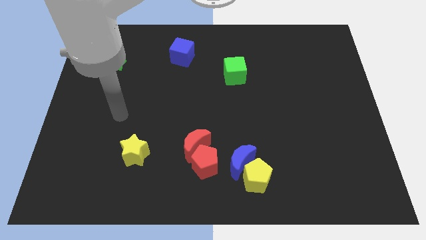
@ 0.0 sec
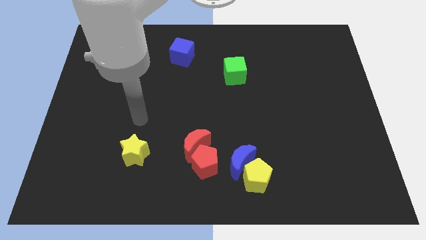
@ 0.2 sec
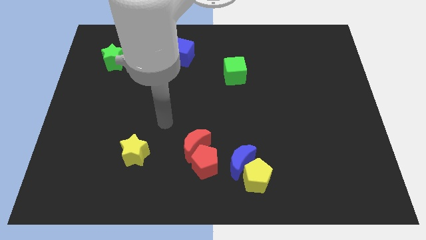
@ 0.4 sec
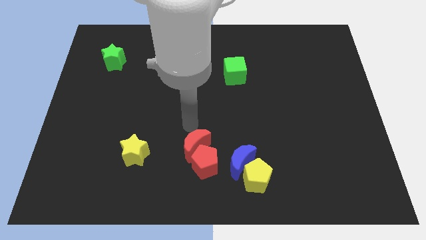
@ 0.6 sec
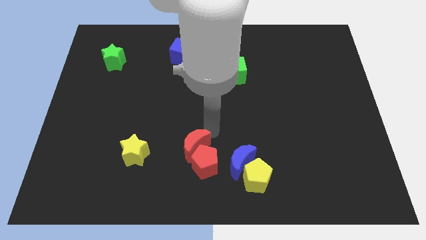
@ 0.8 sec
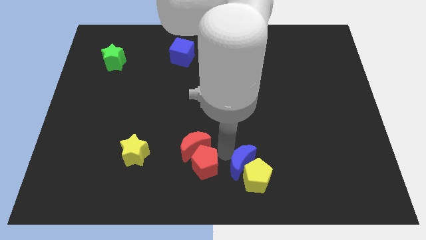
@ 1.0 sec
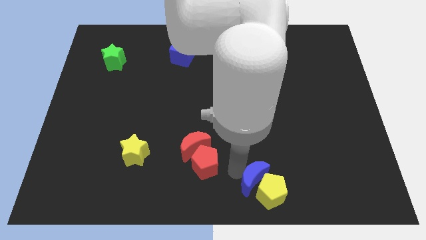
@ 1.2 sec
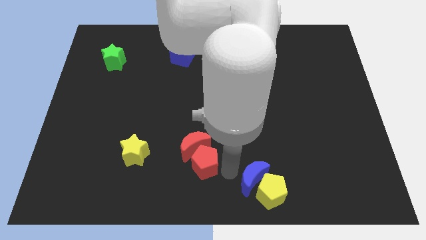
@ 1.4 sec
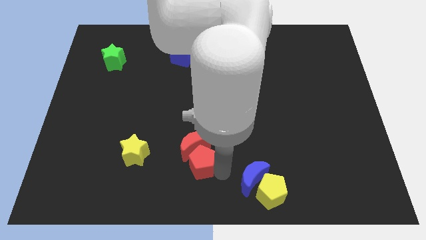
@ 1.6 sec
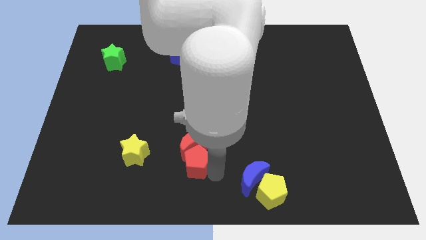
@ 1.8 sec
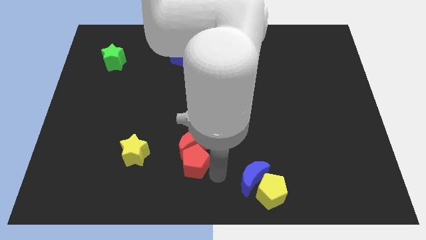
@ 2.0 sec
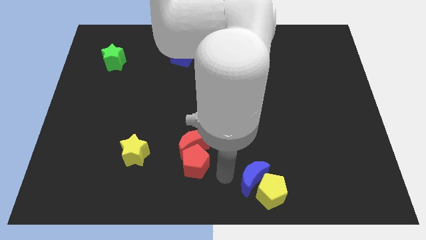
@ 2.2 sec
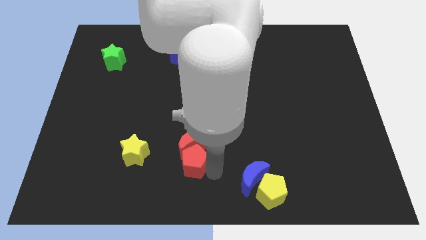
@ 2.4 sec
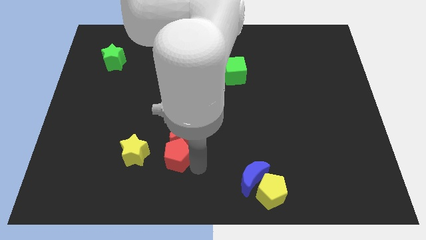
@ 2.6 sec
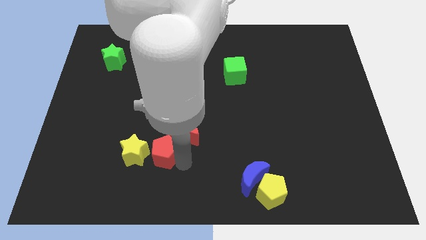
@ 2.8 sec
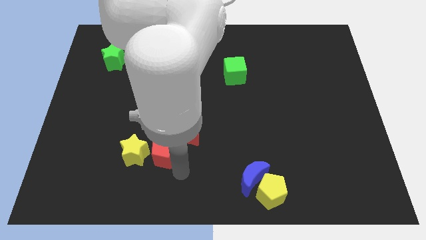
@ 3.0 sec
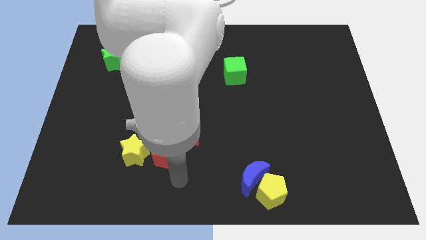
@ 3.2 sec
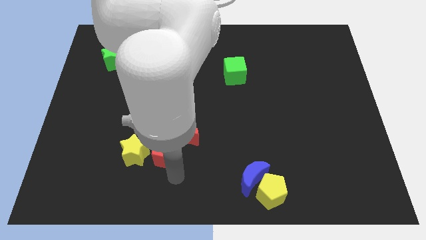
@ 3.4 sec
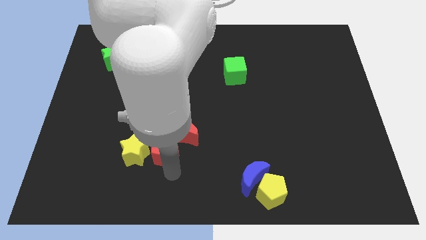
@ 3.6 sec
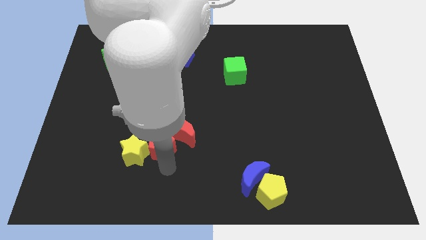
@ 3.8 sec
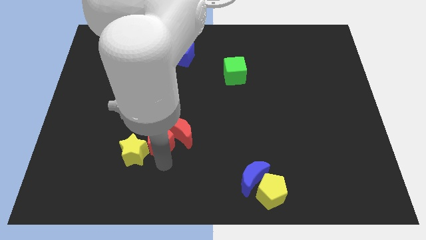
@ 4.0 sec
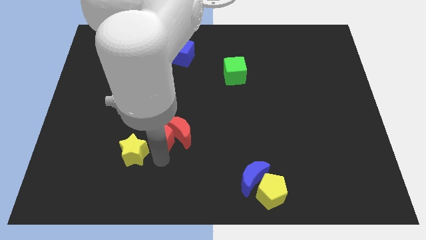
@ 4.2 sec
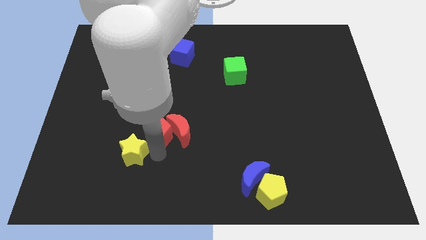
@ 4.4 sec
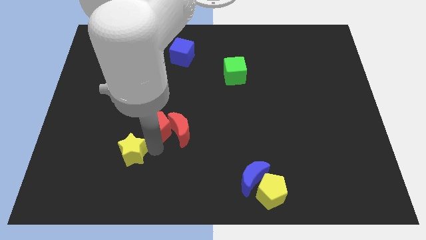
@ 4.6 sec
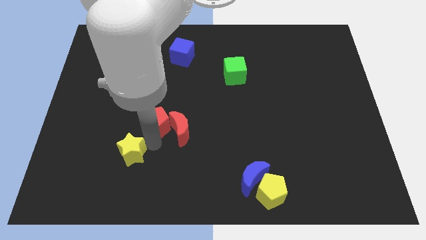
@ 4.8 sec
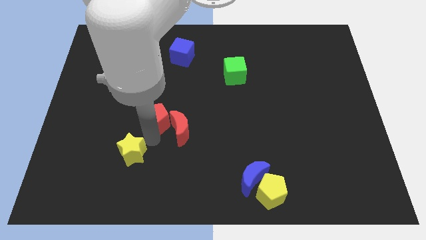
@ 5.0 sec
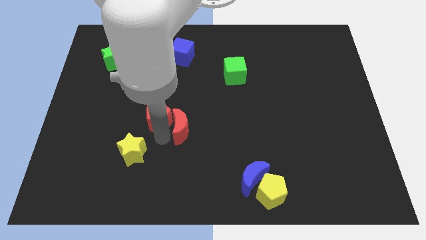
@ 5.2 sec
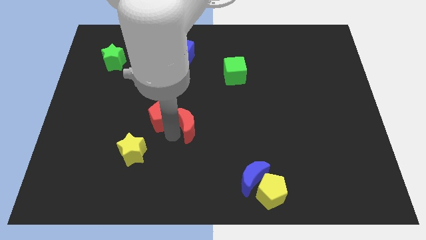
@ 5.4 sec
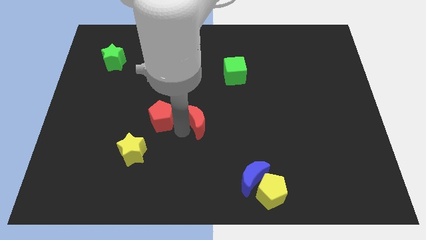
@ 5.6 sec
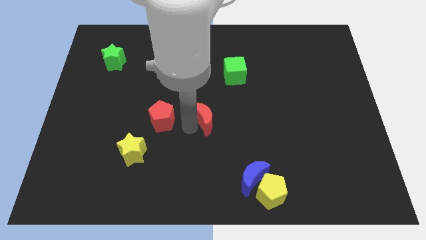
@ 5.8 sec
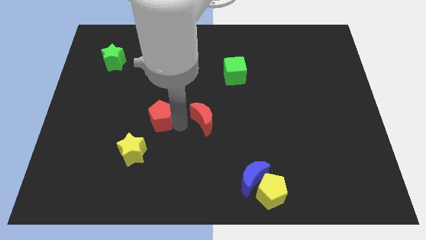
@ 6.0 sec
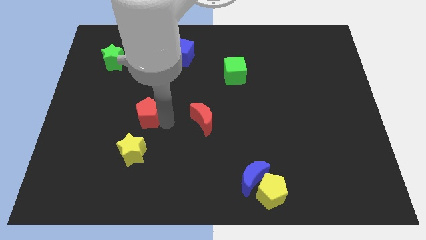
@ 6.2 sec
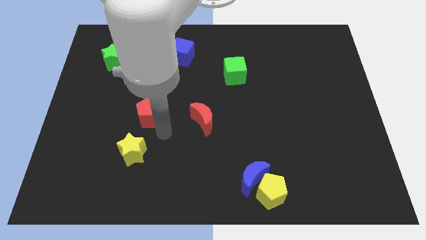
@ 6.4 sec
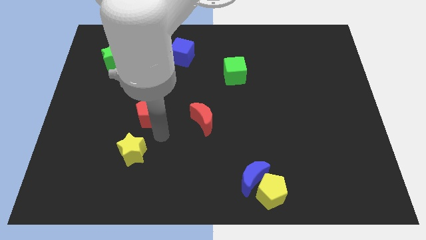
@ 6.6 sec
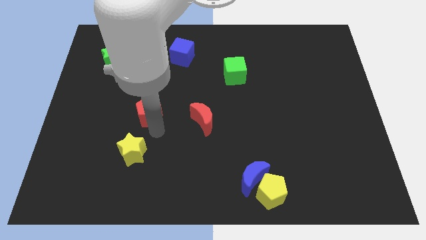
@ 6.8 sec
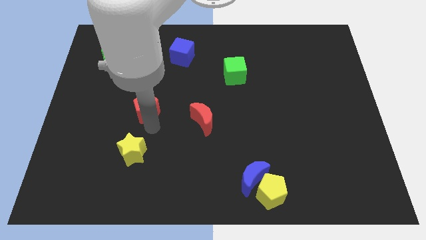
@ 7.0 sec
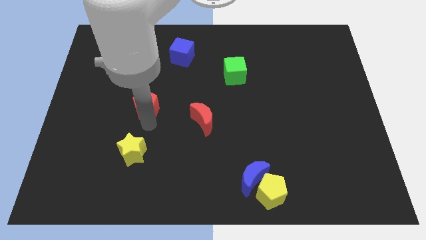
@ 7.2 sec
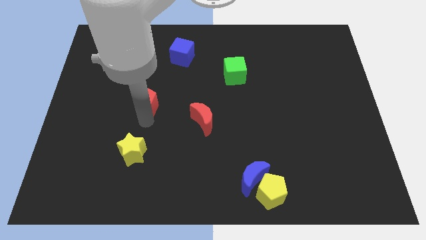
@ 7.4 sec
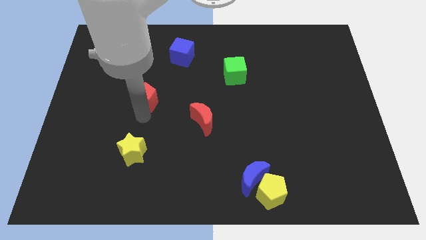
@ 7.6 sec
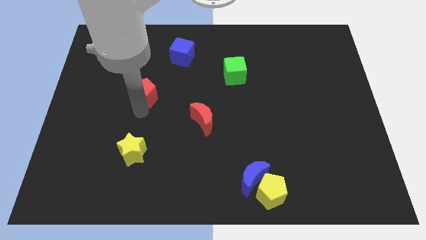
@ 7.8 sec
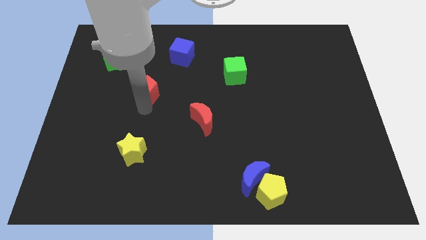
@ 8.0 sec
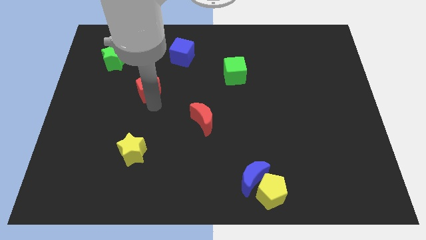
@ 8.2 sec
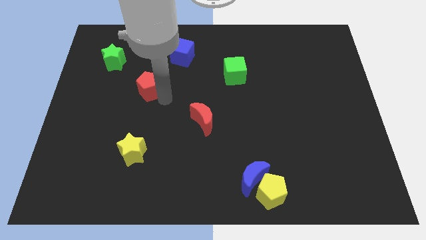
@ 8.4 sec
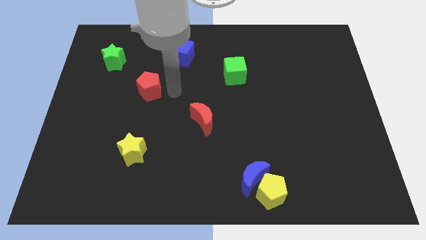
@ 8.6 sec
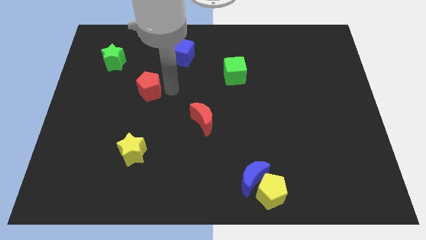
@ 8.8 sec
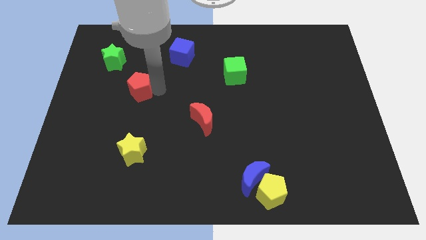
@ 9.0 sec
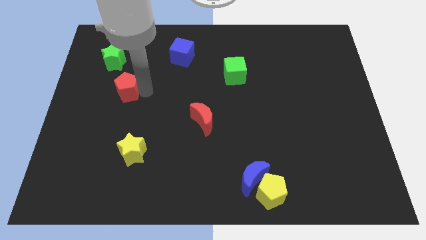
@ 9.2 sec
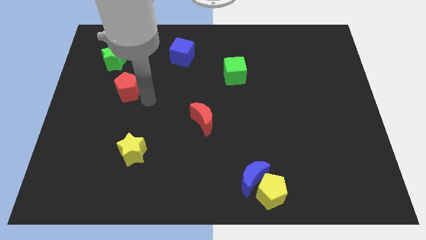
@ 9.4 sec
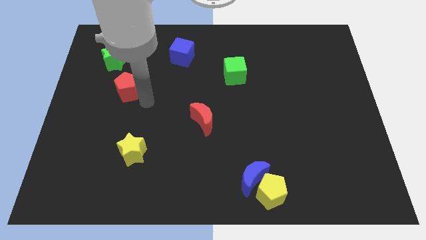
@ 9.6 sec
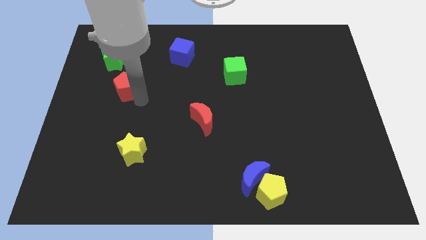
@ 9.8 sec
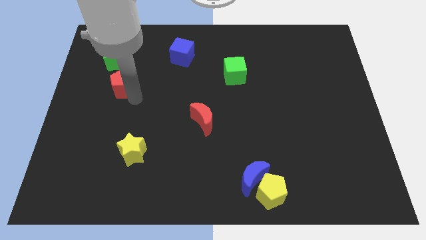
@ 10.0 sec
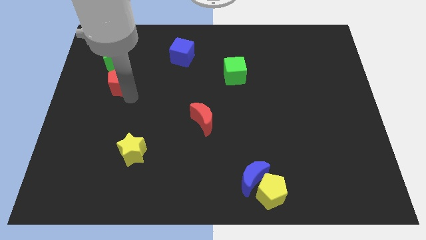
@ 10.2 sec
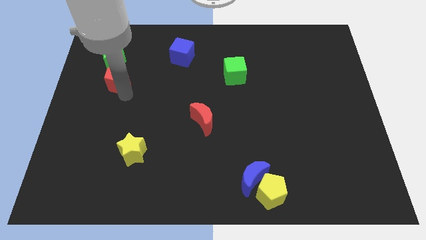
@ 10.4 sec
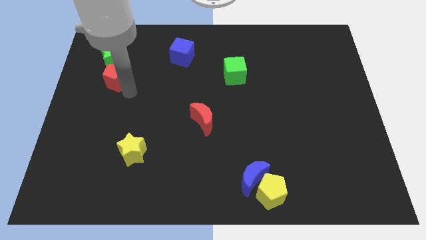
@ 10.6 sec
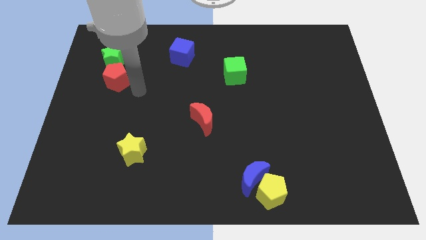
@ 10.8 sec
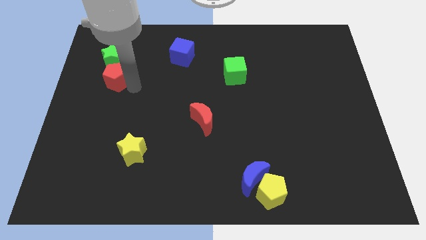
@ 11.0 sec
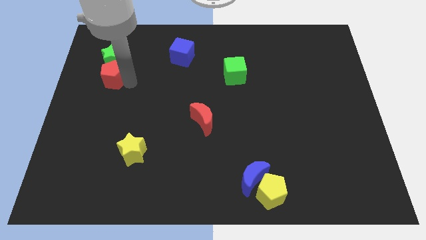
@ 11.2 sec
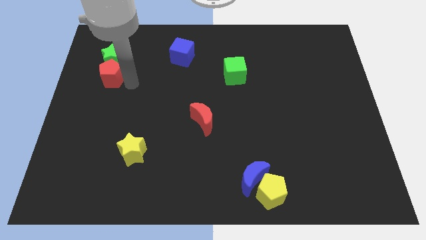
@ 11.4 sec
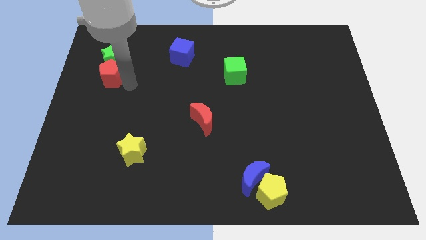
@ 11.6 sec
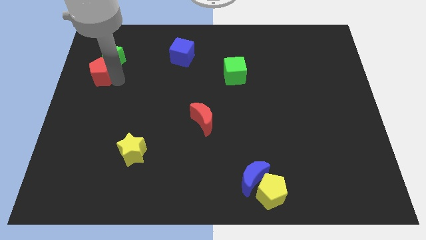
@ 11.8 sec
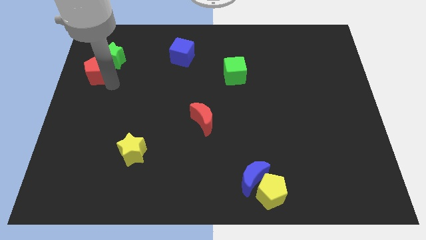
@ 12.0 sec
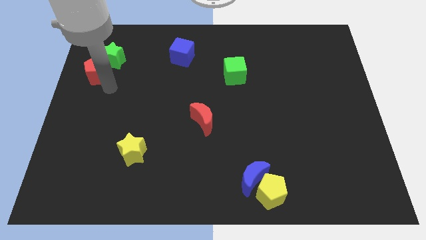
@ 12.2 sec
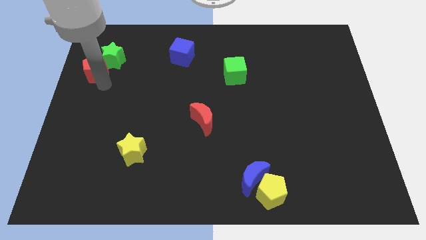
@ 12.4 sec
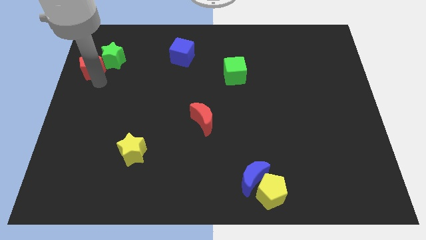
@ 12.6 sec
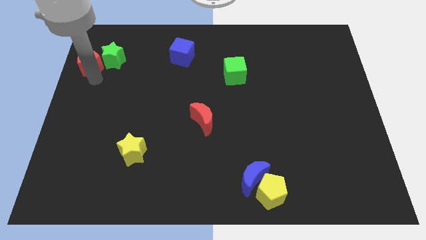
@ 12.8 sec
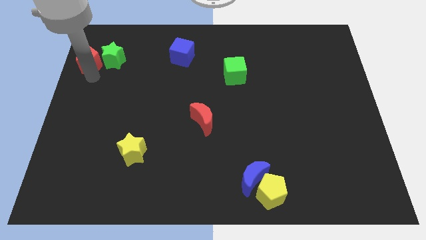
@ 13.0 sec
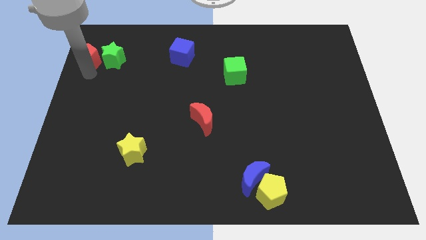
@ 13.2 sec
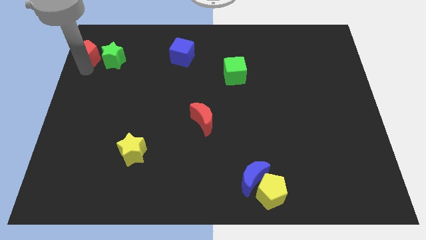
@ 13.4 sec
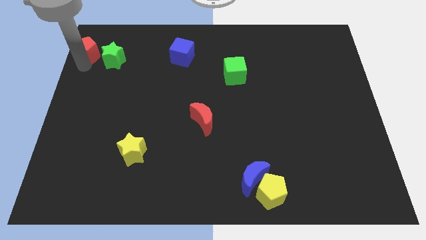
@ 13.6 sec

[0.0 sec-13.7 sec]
push the red pentagon to the top left
